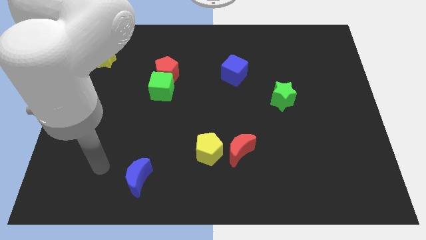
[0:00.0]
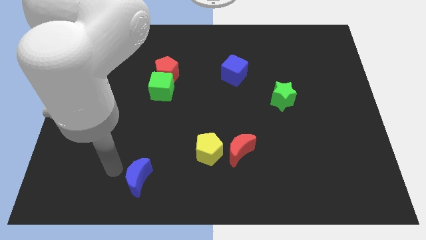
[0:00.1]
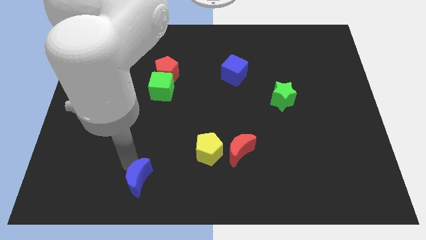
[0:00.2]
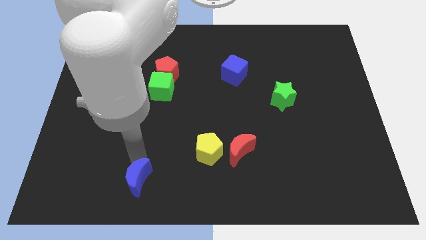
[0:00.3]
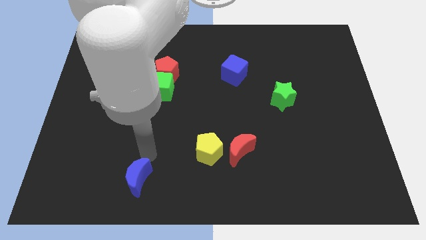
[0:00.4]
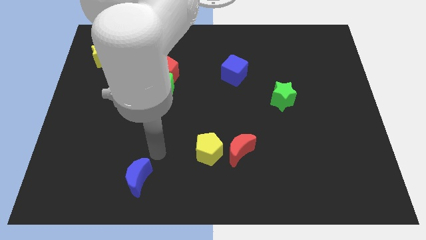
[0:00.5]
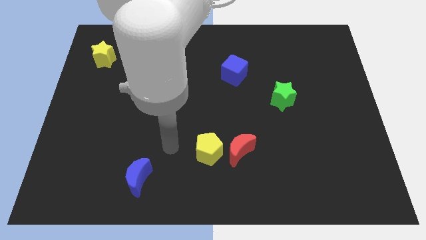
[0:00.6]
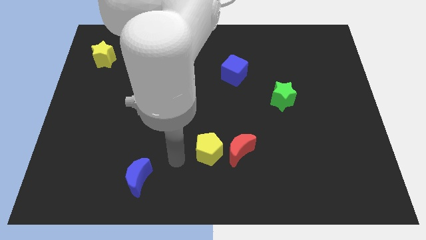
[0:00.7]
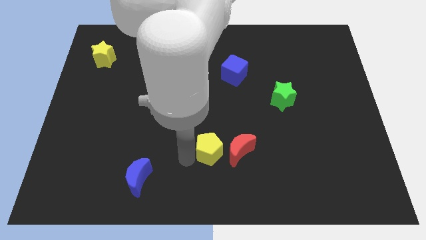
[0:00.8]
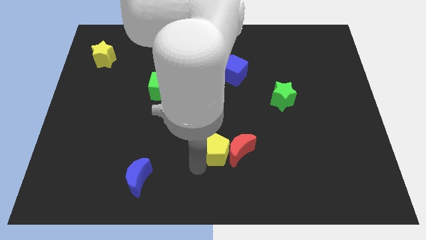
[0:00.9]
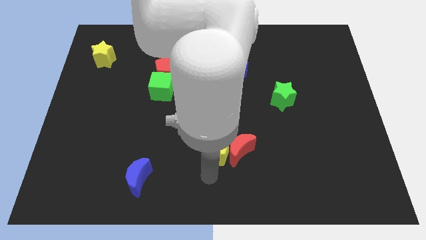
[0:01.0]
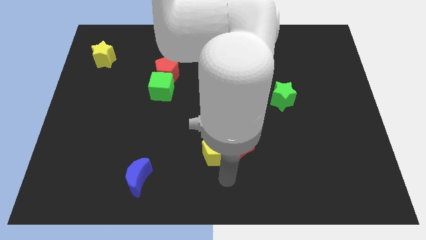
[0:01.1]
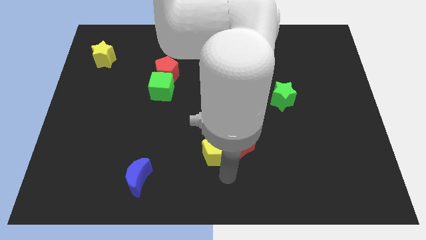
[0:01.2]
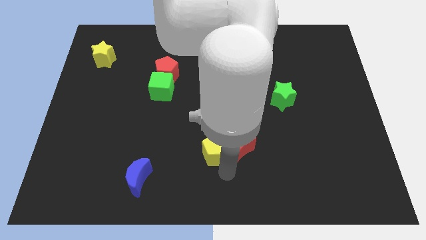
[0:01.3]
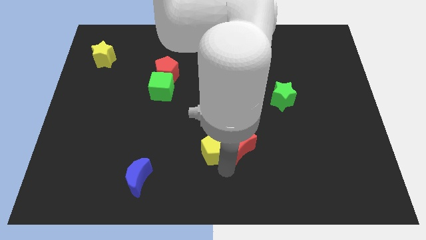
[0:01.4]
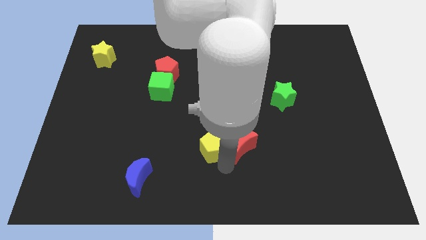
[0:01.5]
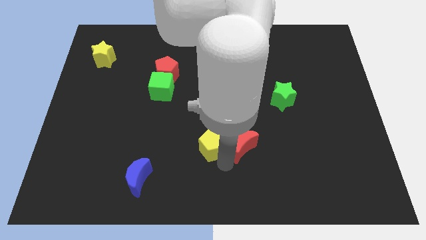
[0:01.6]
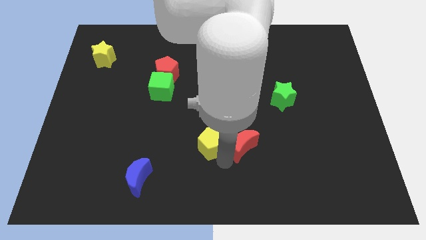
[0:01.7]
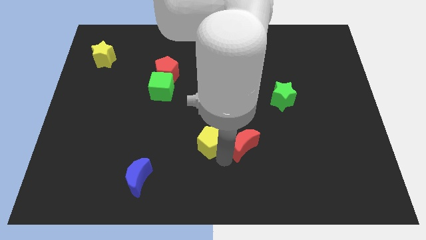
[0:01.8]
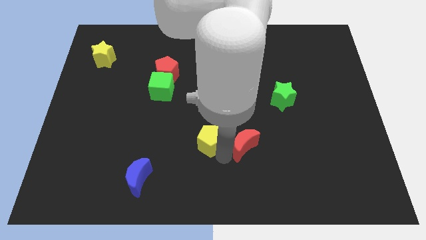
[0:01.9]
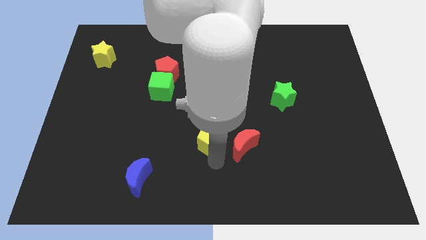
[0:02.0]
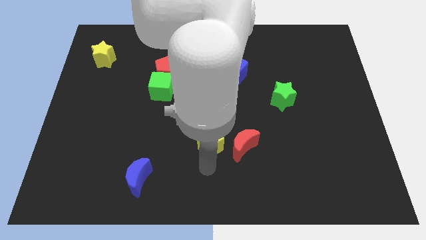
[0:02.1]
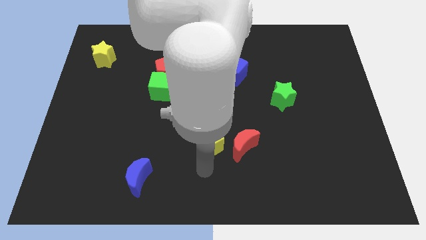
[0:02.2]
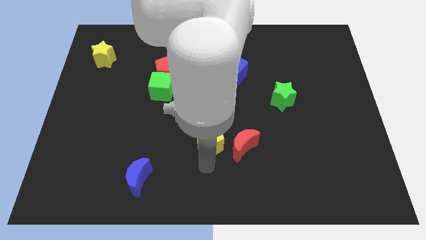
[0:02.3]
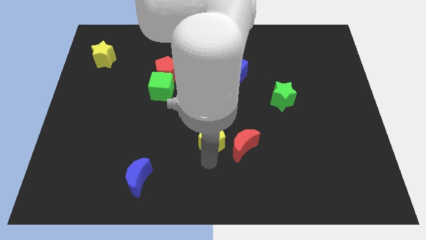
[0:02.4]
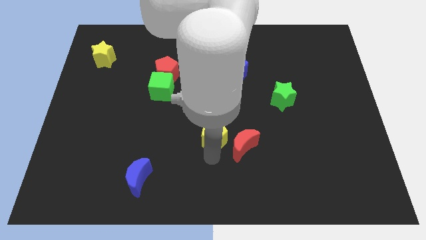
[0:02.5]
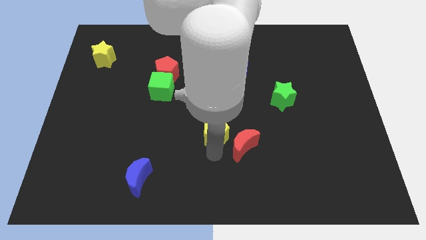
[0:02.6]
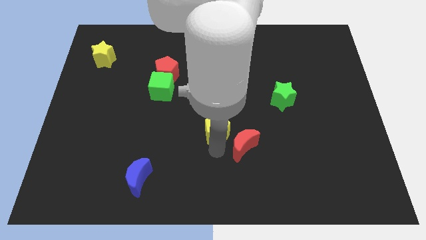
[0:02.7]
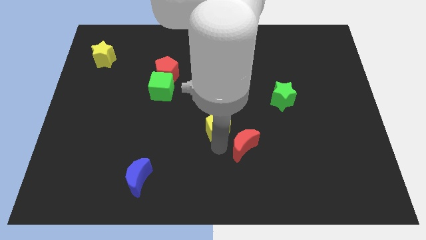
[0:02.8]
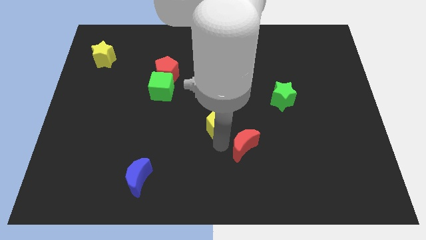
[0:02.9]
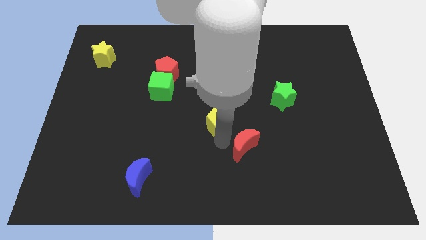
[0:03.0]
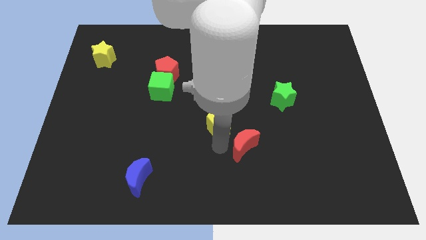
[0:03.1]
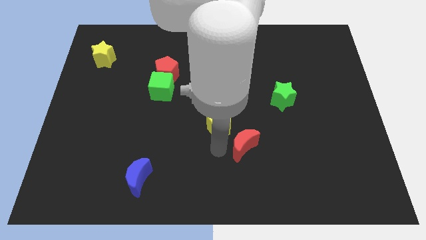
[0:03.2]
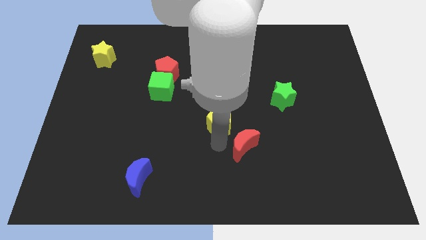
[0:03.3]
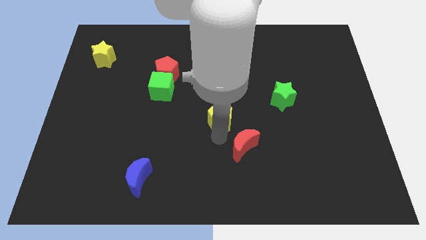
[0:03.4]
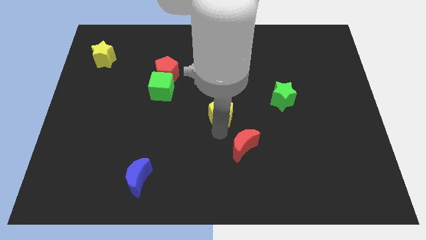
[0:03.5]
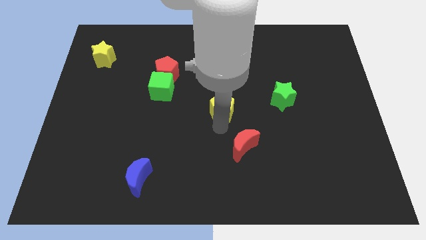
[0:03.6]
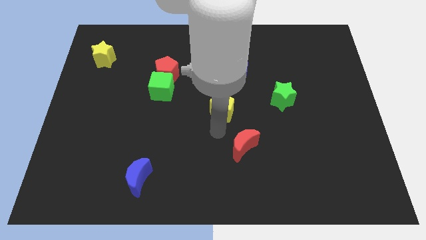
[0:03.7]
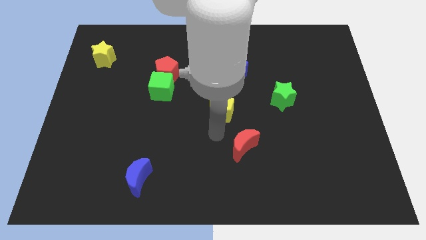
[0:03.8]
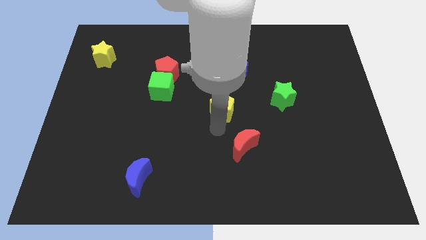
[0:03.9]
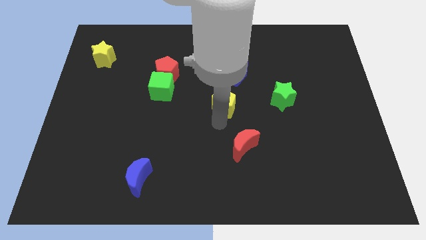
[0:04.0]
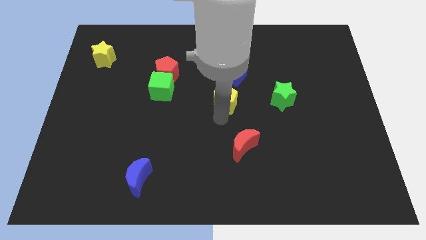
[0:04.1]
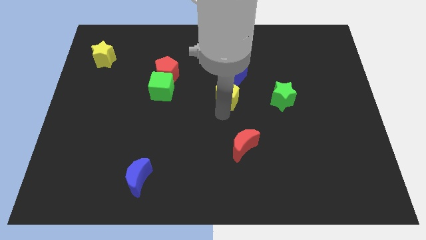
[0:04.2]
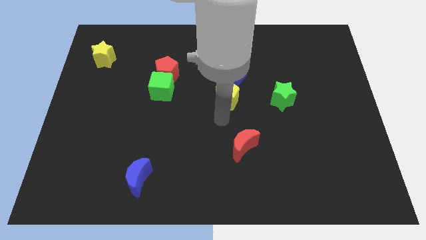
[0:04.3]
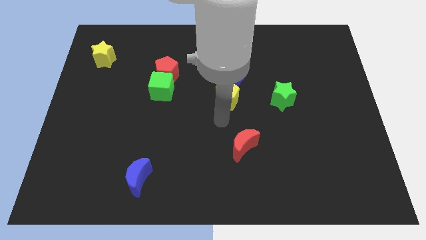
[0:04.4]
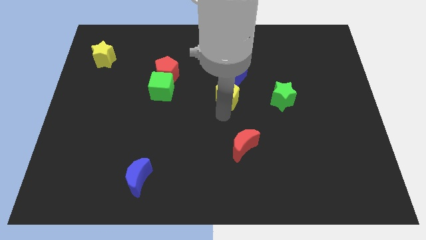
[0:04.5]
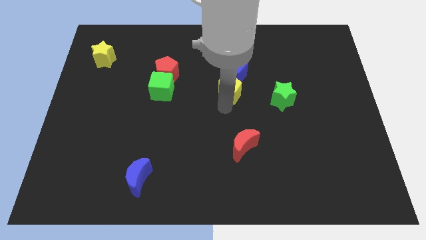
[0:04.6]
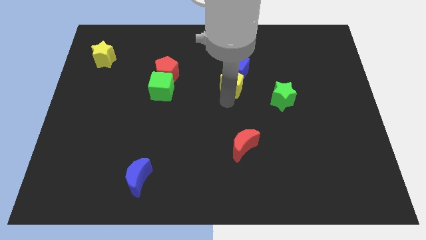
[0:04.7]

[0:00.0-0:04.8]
put the yellow pentagon close to the blue cube

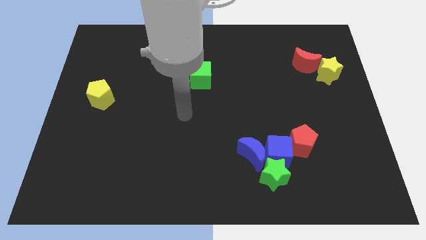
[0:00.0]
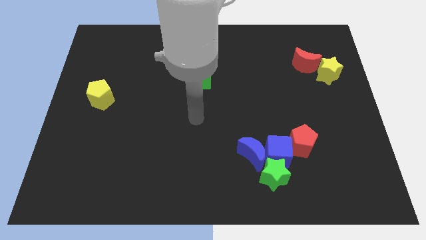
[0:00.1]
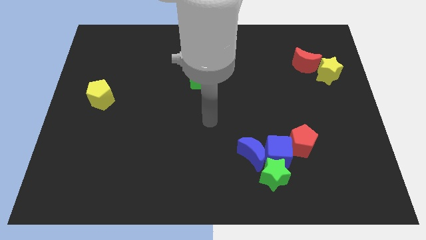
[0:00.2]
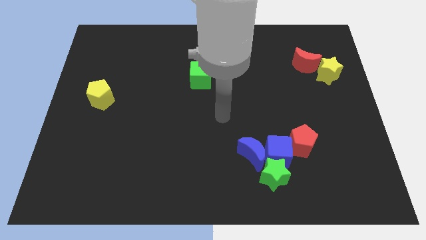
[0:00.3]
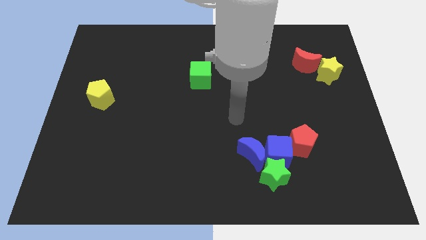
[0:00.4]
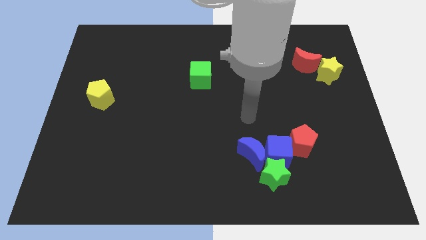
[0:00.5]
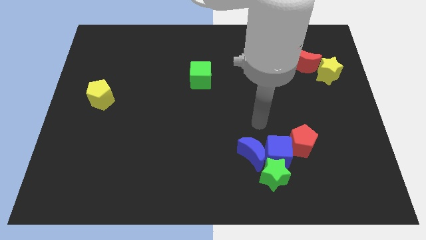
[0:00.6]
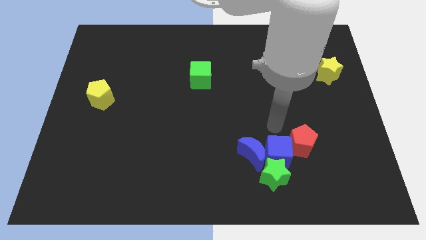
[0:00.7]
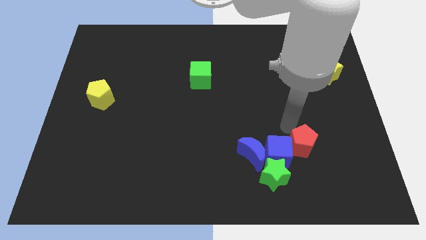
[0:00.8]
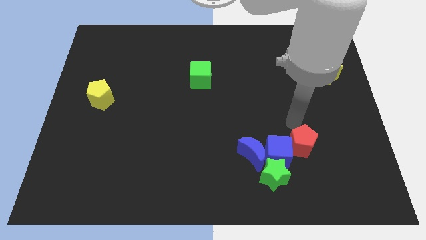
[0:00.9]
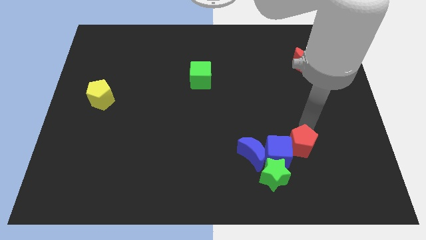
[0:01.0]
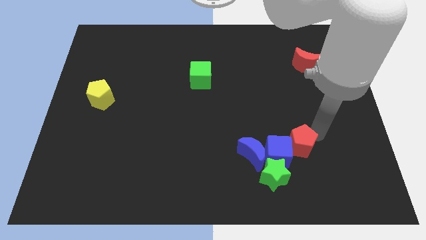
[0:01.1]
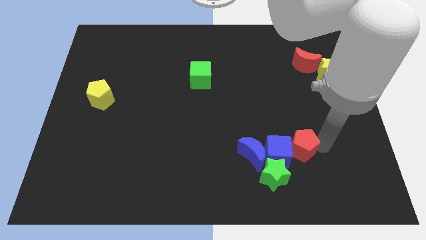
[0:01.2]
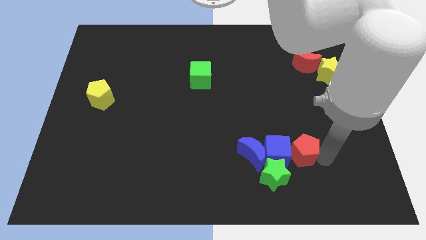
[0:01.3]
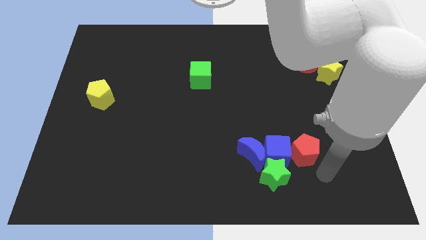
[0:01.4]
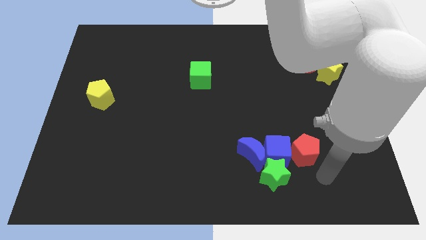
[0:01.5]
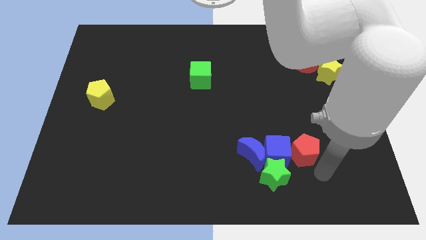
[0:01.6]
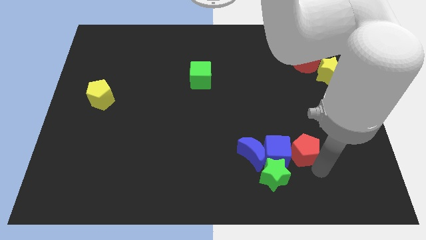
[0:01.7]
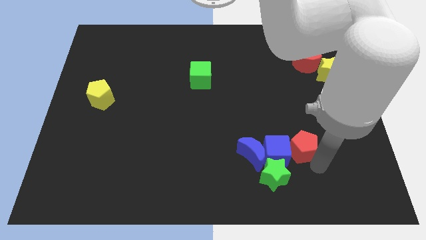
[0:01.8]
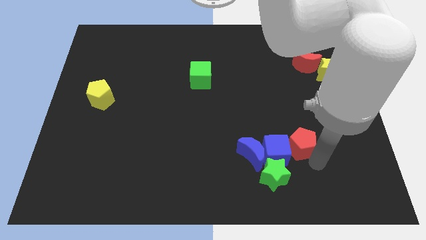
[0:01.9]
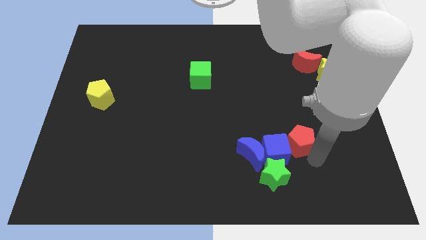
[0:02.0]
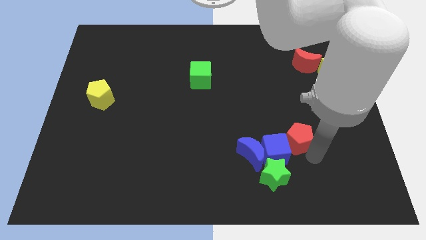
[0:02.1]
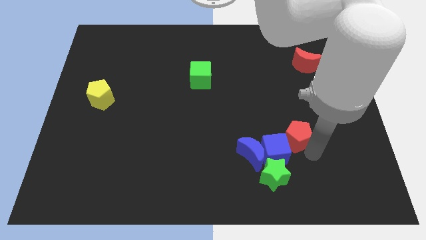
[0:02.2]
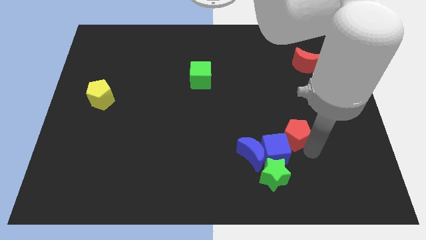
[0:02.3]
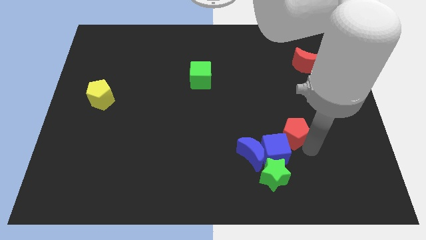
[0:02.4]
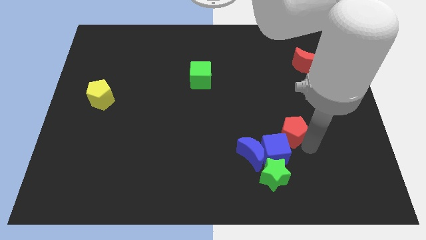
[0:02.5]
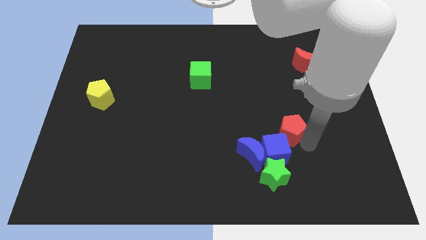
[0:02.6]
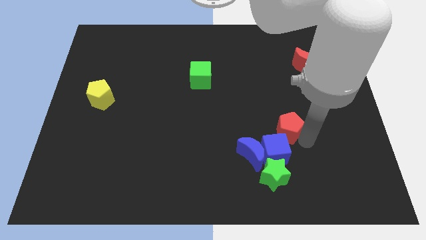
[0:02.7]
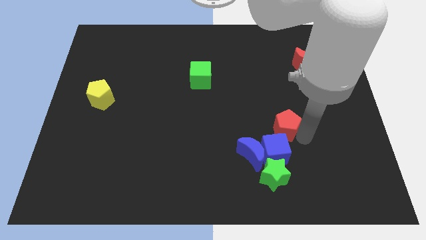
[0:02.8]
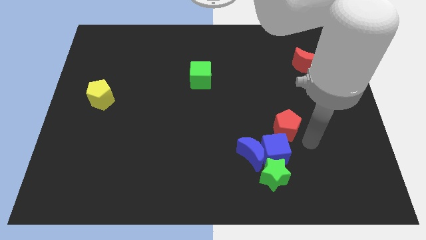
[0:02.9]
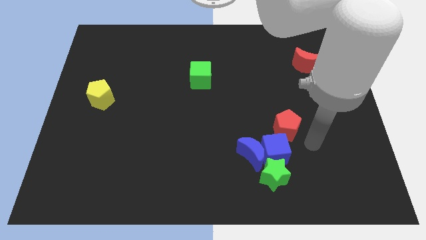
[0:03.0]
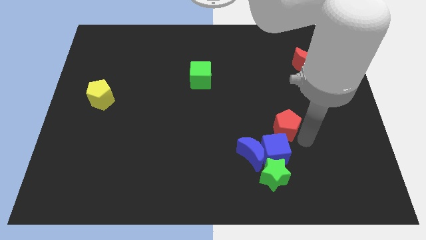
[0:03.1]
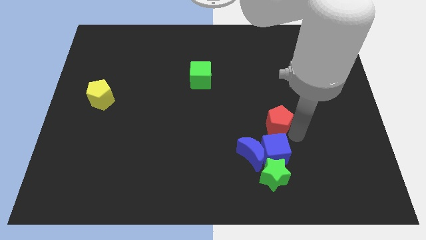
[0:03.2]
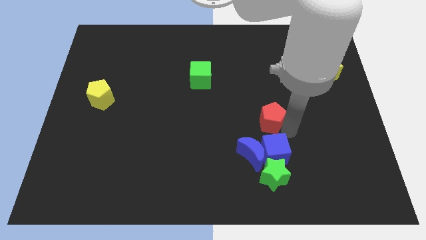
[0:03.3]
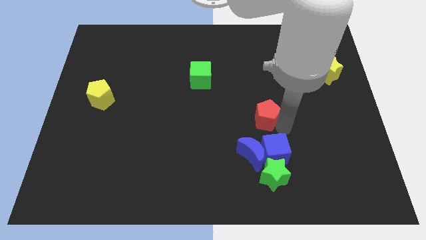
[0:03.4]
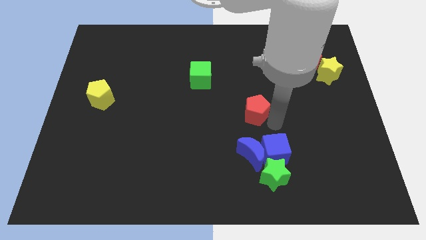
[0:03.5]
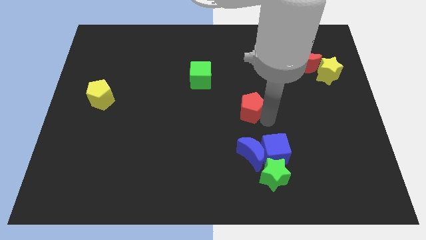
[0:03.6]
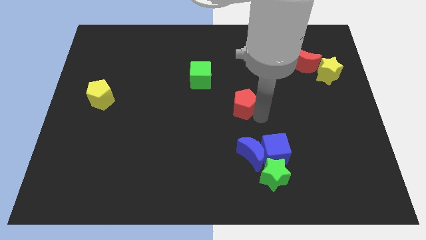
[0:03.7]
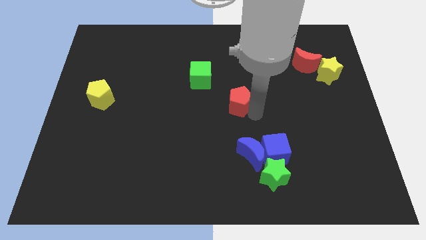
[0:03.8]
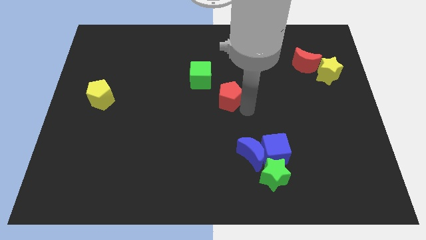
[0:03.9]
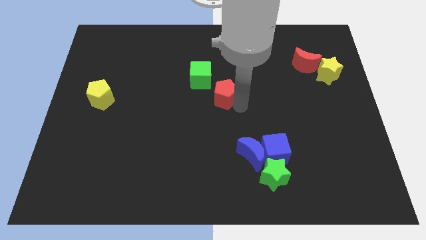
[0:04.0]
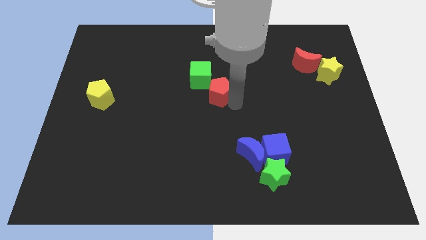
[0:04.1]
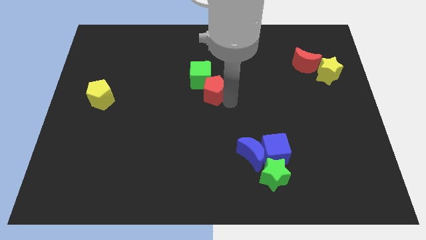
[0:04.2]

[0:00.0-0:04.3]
push the red pentagon next to the green cube
